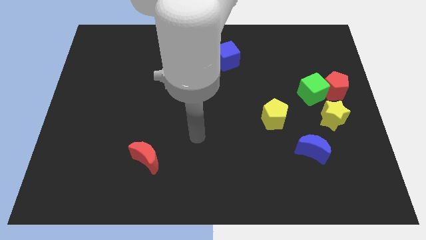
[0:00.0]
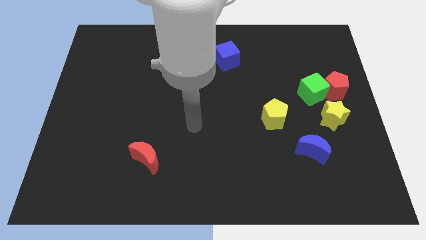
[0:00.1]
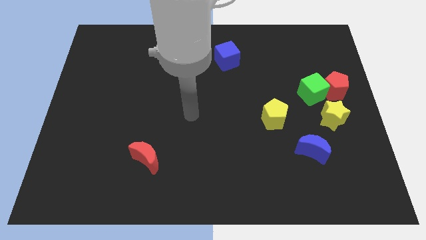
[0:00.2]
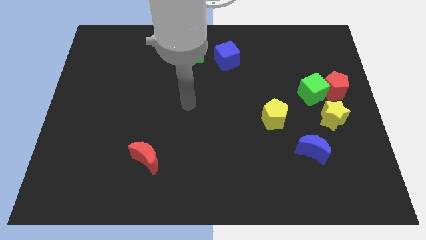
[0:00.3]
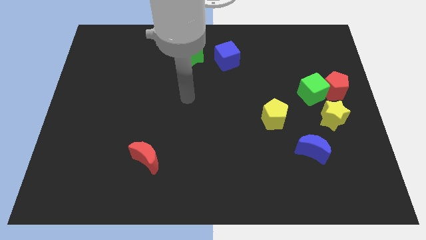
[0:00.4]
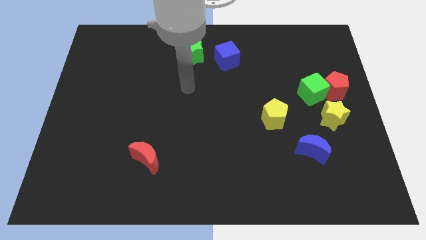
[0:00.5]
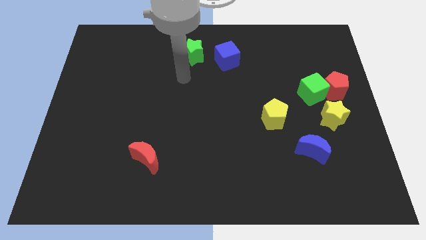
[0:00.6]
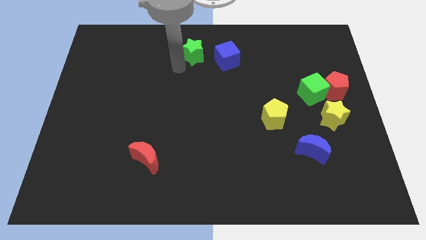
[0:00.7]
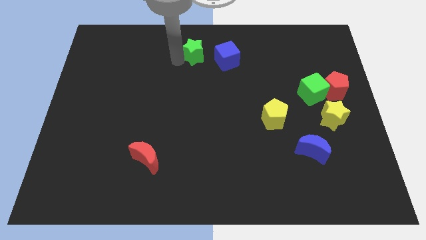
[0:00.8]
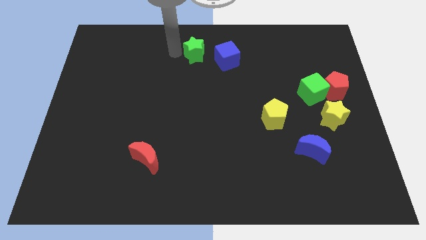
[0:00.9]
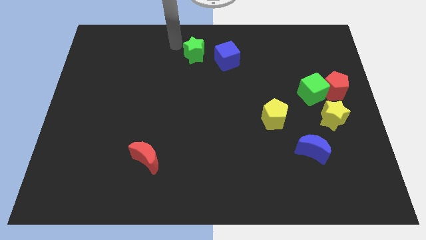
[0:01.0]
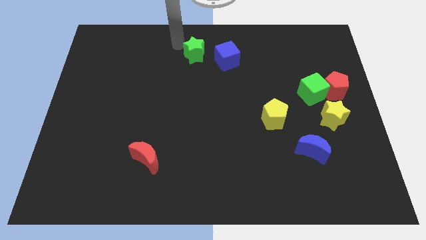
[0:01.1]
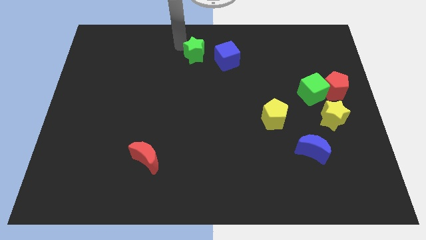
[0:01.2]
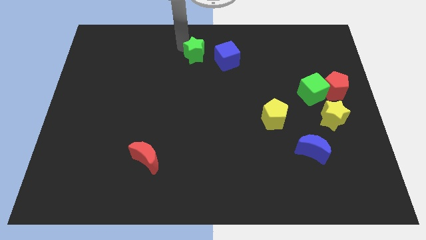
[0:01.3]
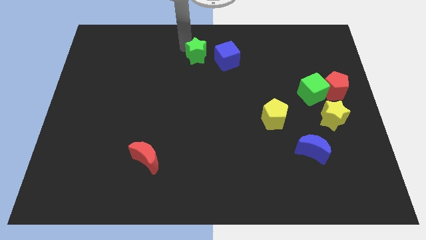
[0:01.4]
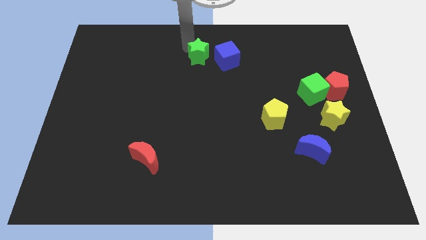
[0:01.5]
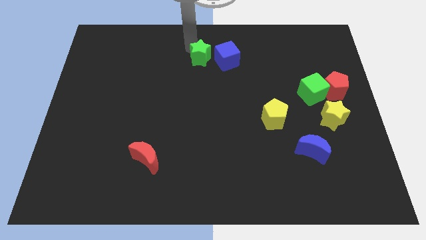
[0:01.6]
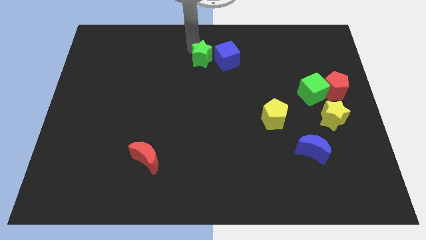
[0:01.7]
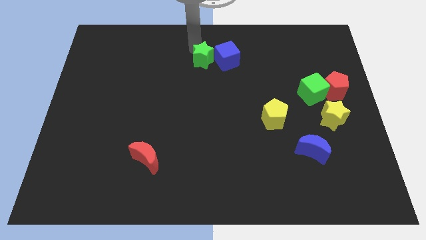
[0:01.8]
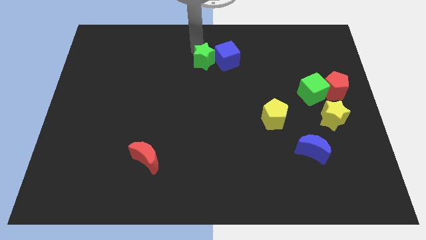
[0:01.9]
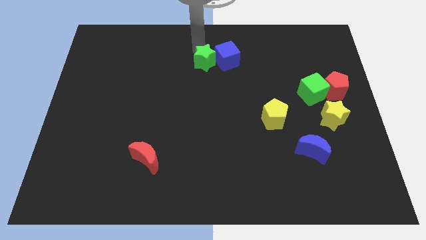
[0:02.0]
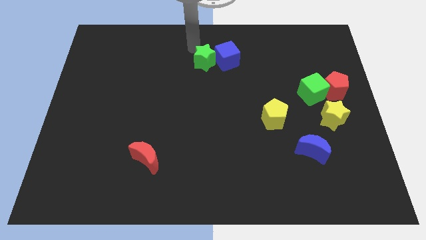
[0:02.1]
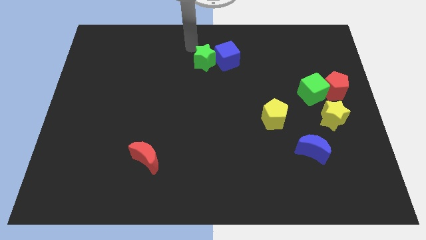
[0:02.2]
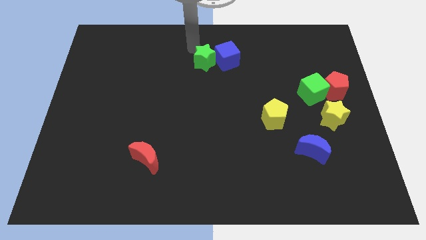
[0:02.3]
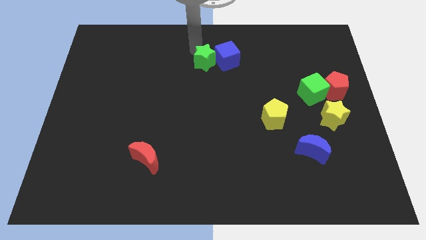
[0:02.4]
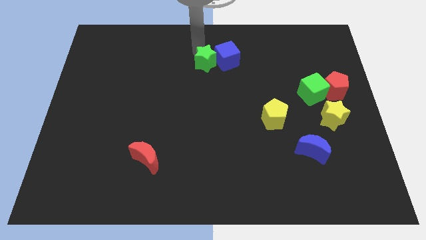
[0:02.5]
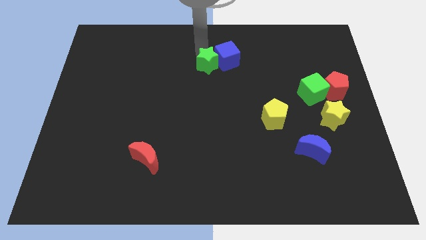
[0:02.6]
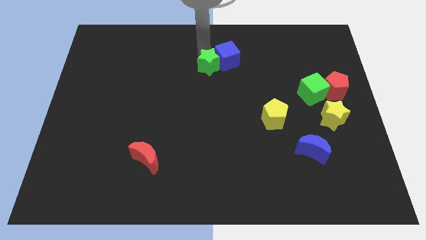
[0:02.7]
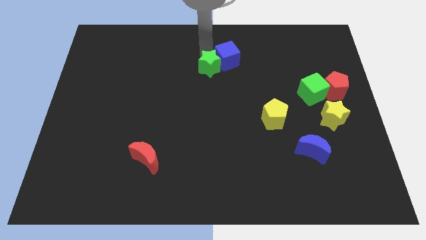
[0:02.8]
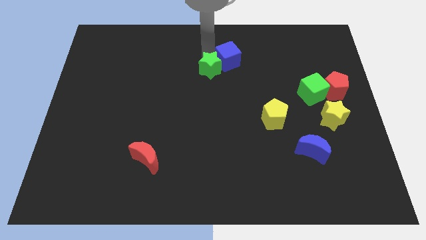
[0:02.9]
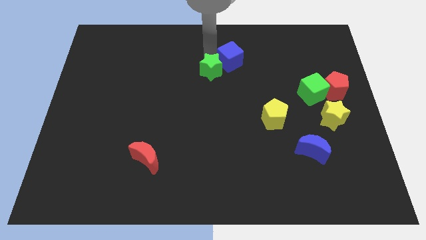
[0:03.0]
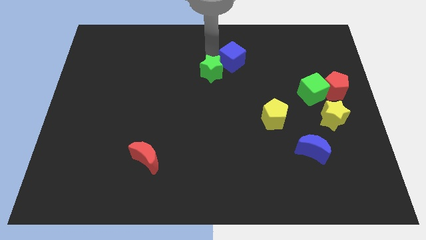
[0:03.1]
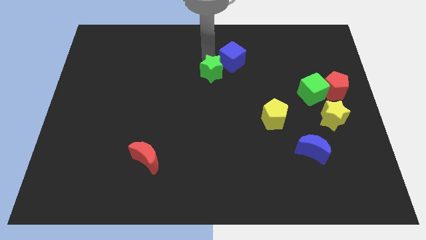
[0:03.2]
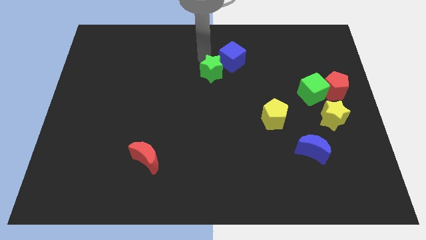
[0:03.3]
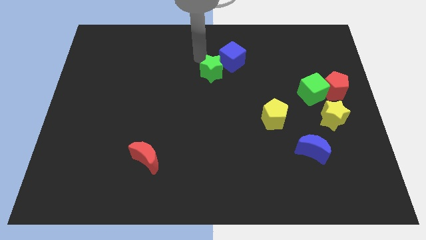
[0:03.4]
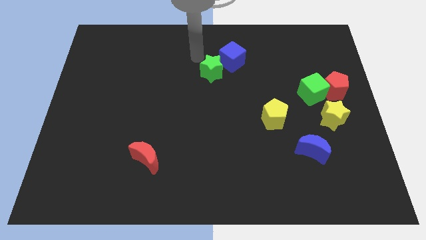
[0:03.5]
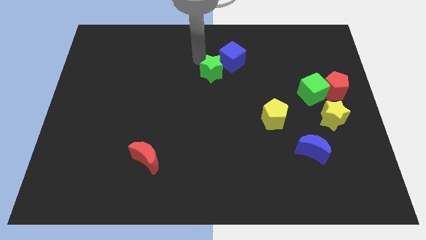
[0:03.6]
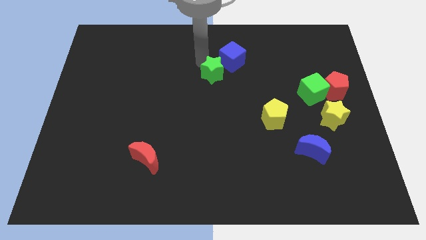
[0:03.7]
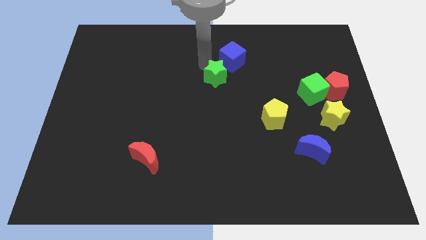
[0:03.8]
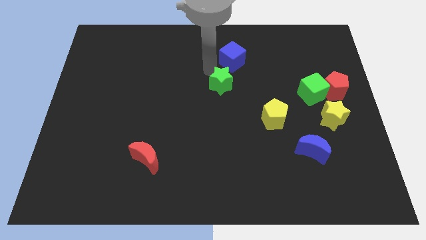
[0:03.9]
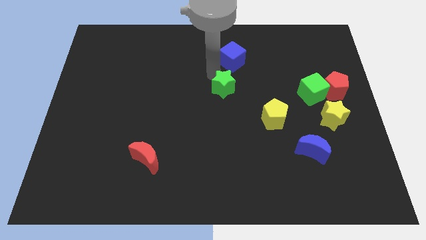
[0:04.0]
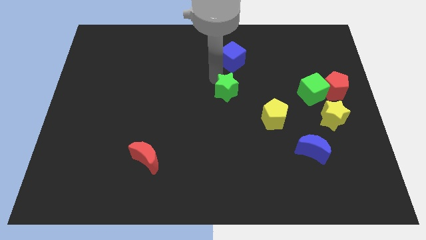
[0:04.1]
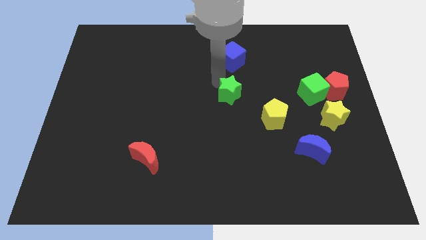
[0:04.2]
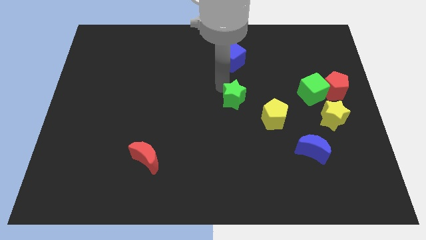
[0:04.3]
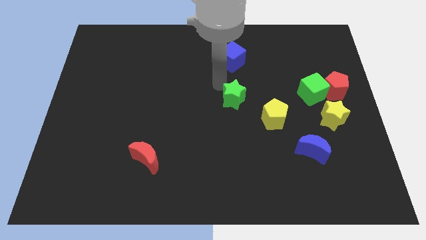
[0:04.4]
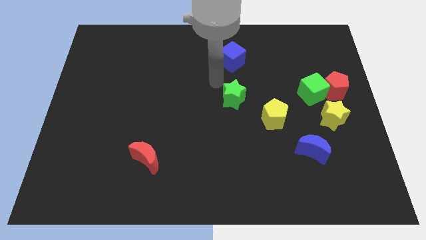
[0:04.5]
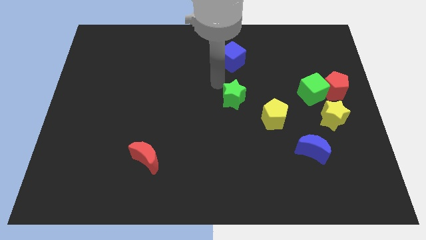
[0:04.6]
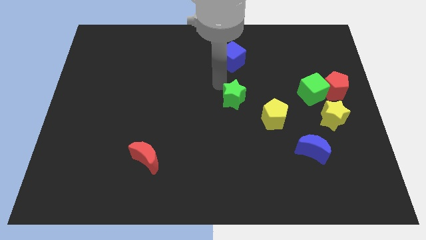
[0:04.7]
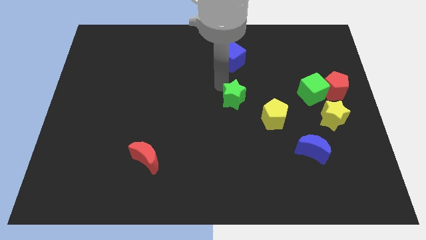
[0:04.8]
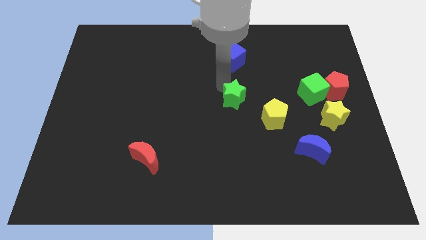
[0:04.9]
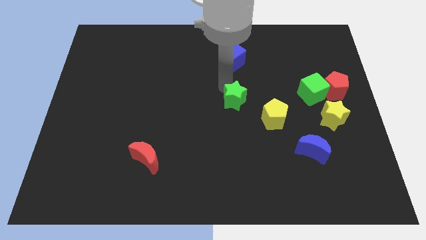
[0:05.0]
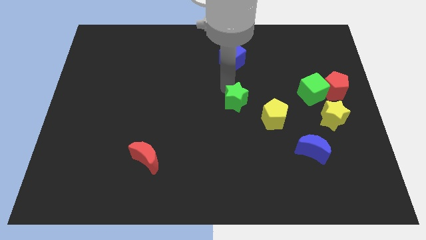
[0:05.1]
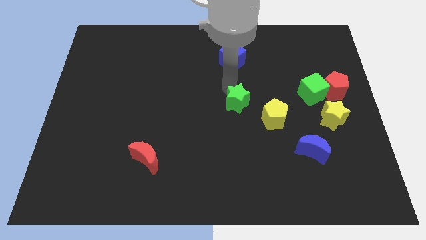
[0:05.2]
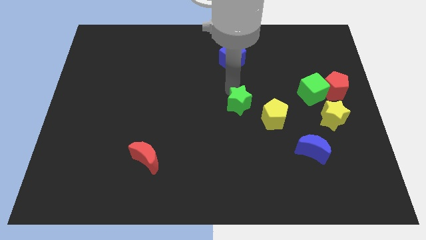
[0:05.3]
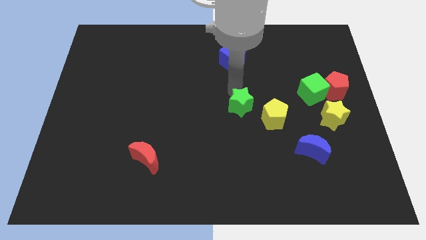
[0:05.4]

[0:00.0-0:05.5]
slide the green star downwards and then right

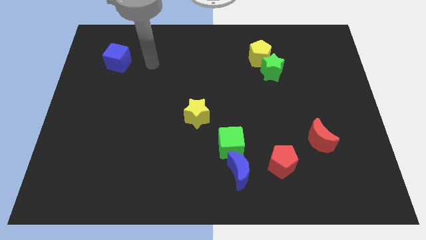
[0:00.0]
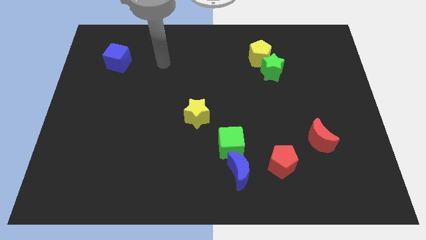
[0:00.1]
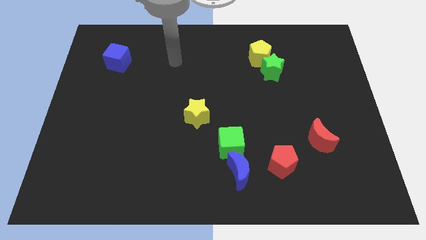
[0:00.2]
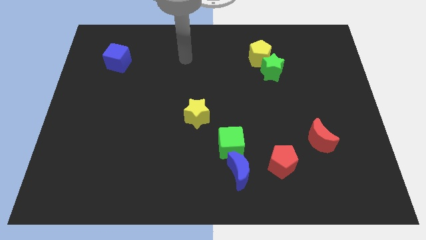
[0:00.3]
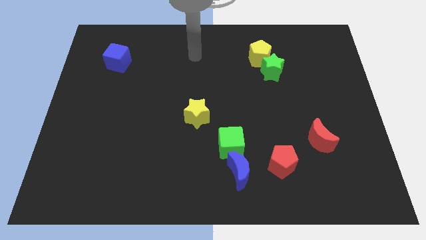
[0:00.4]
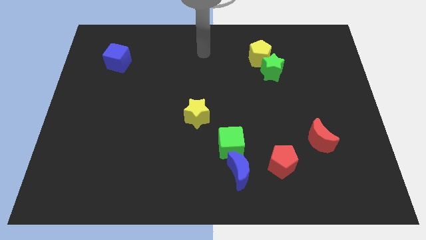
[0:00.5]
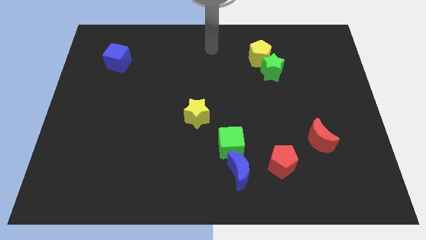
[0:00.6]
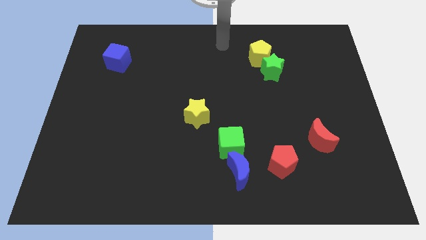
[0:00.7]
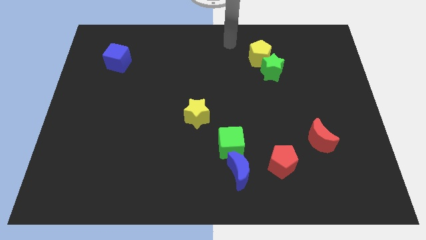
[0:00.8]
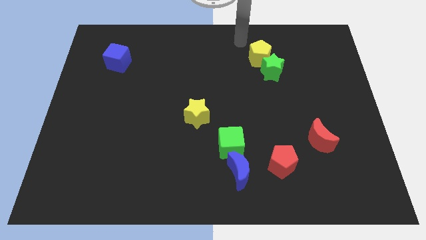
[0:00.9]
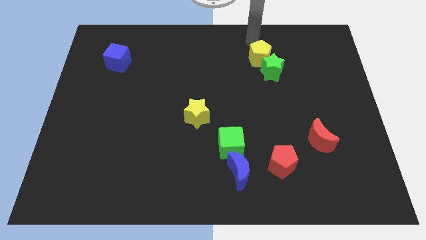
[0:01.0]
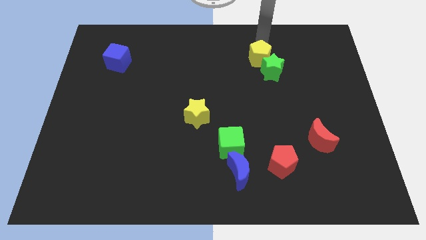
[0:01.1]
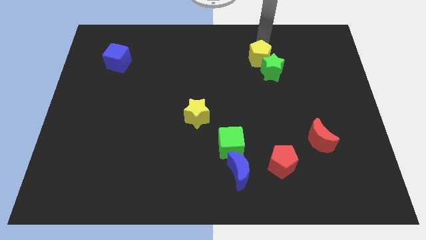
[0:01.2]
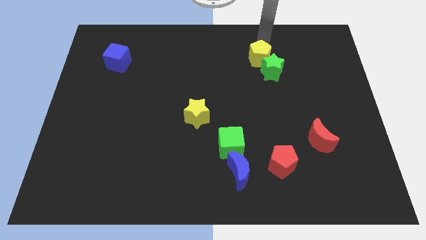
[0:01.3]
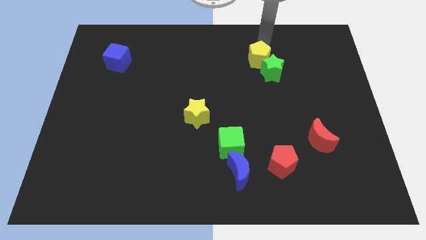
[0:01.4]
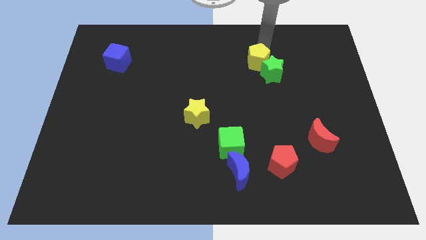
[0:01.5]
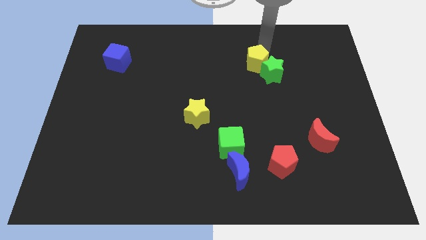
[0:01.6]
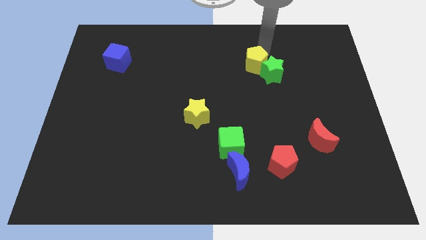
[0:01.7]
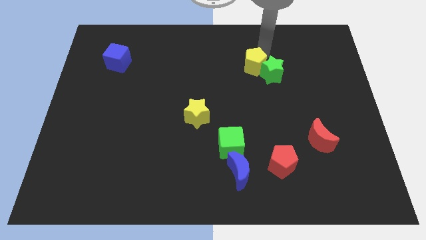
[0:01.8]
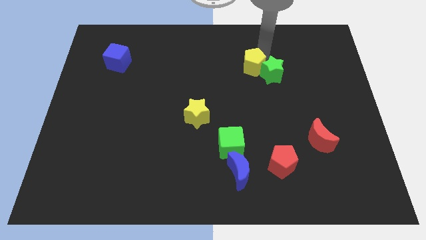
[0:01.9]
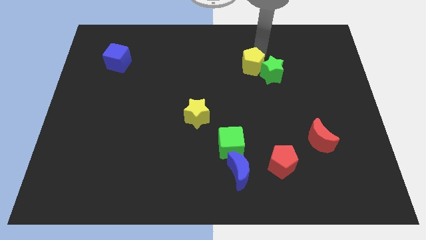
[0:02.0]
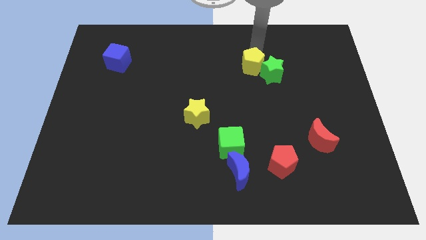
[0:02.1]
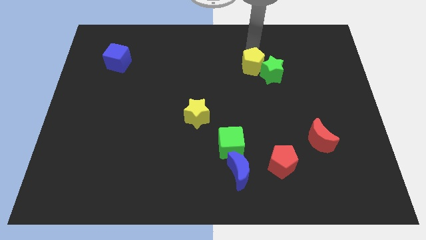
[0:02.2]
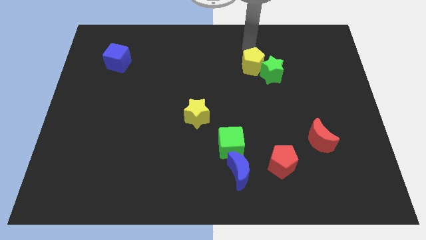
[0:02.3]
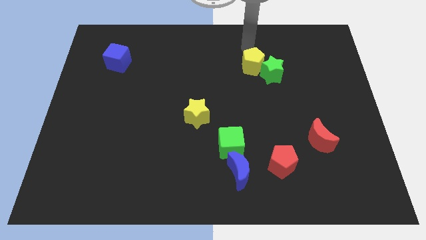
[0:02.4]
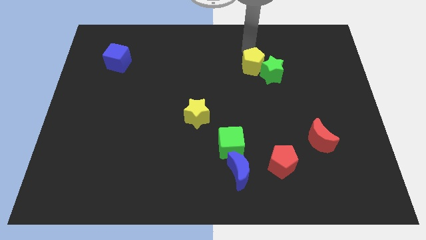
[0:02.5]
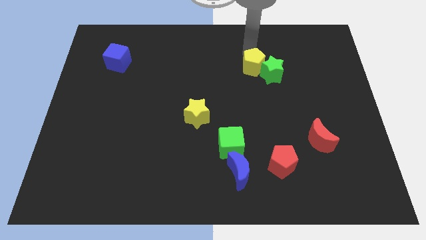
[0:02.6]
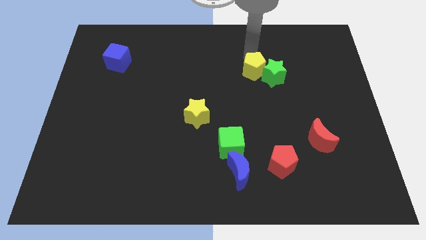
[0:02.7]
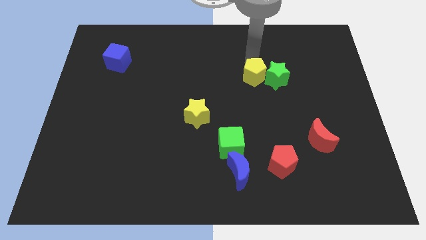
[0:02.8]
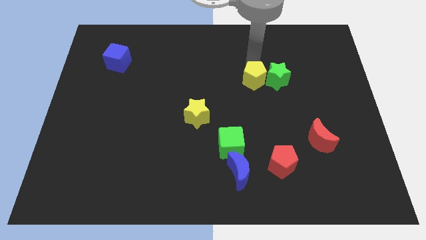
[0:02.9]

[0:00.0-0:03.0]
move the yellow pentagon somewhat down
